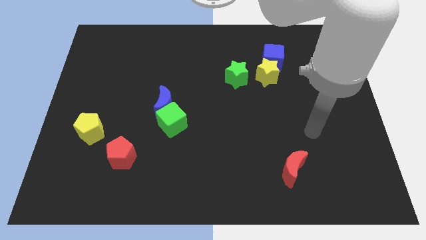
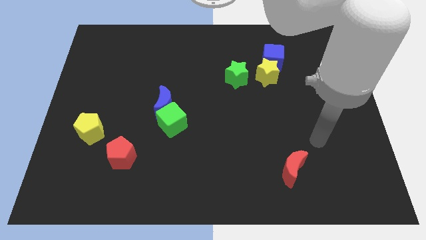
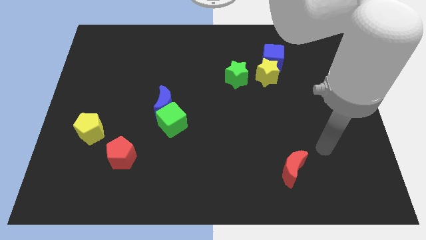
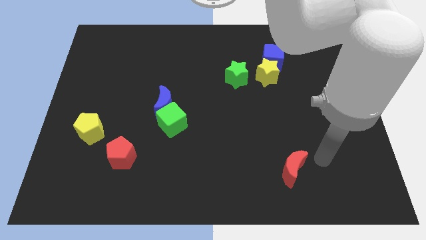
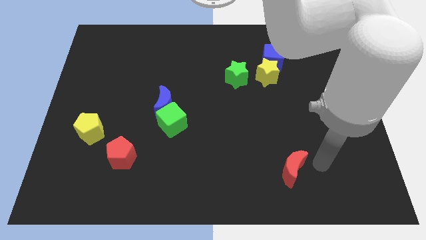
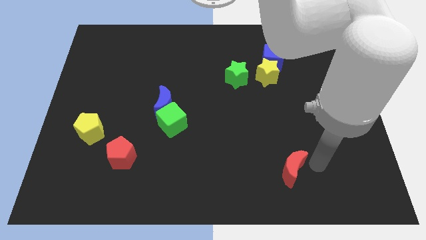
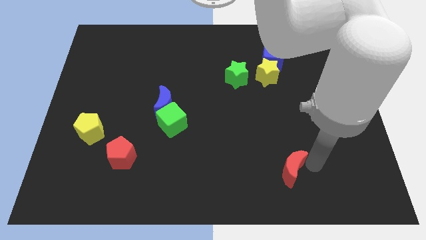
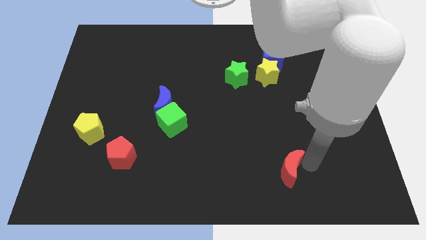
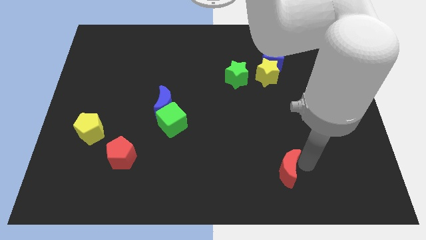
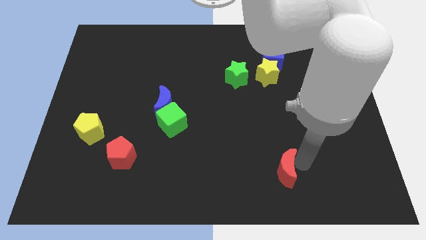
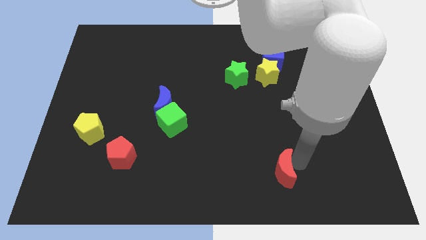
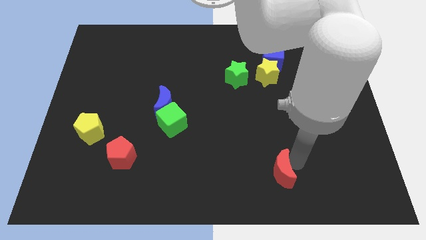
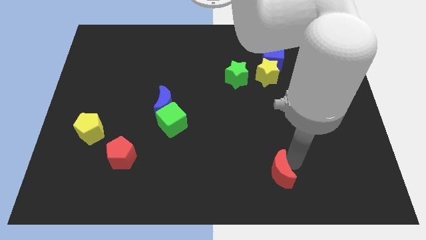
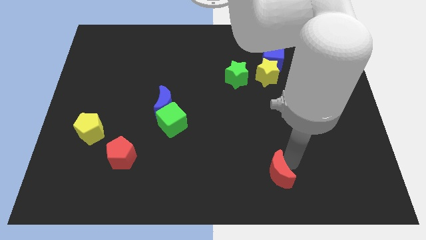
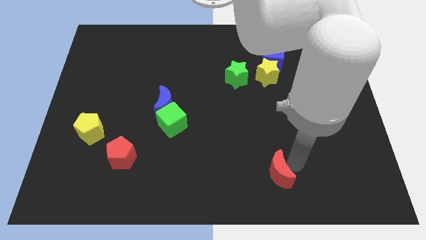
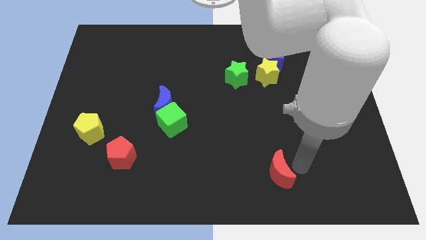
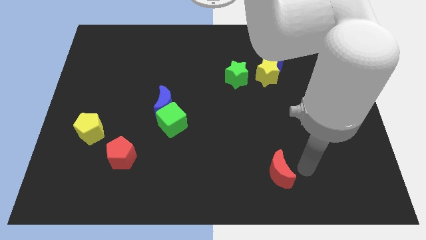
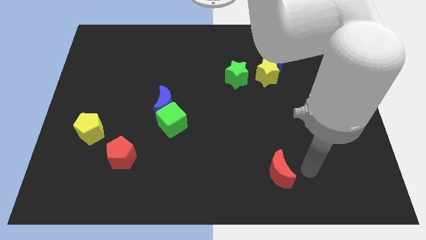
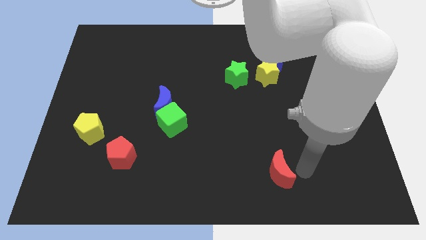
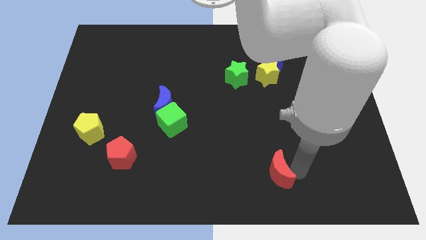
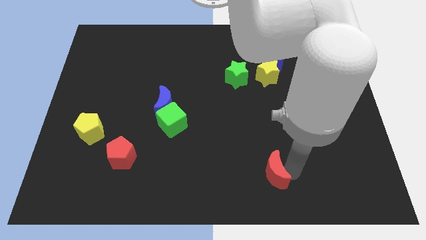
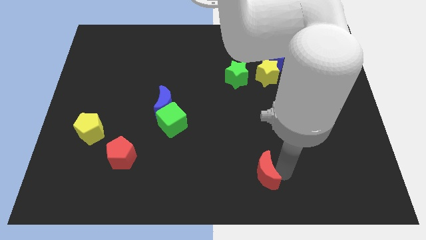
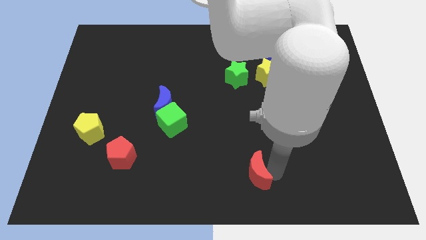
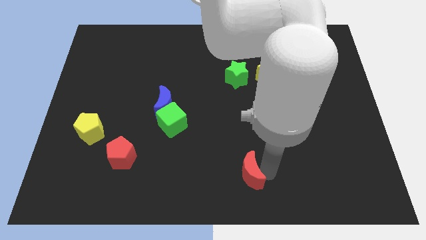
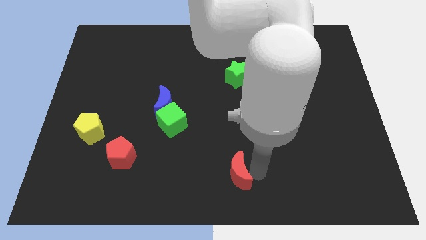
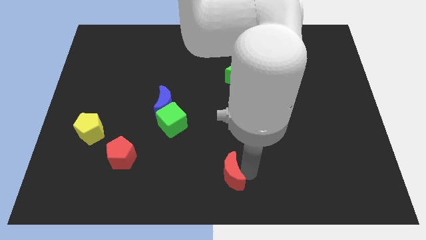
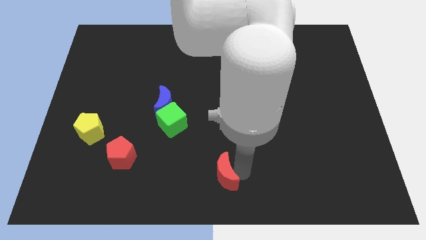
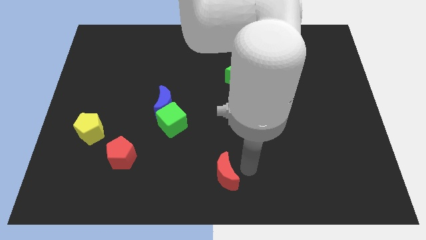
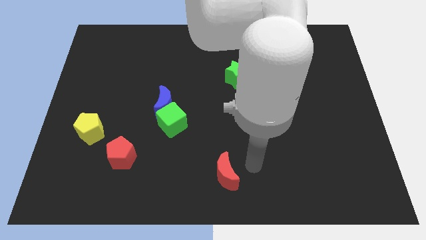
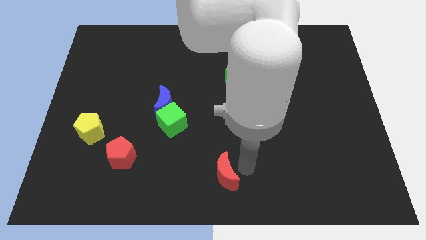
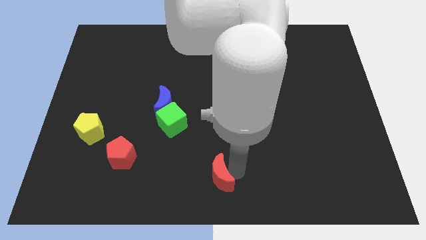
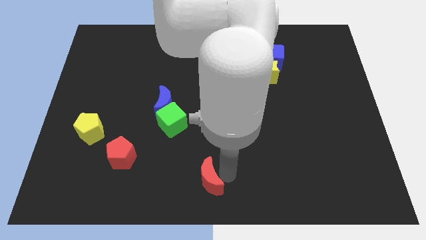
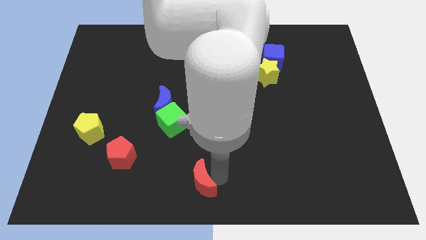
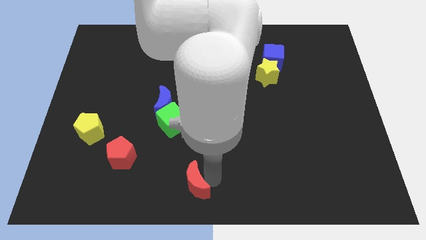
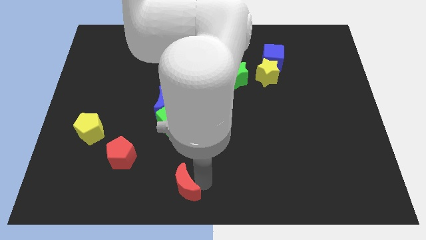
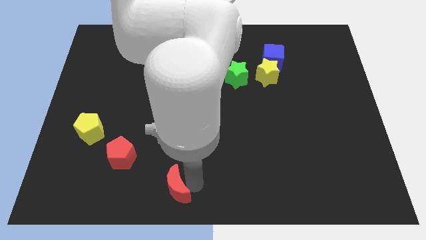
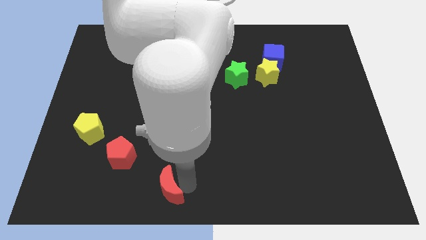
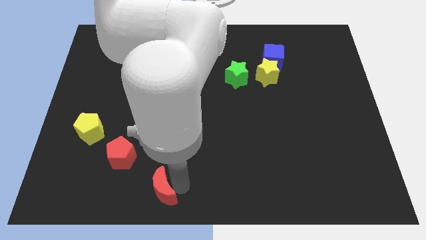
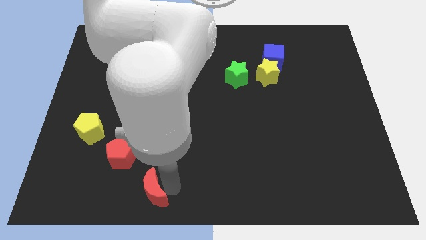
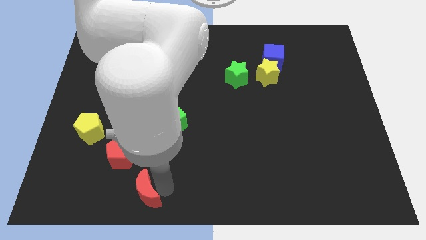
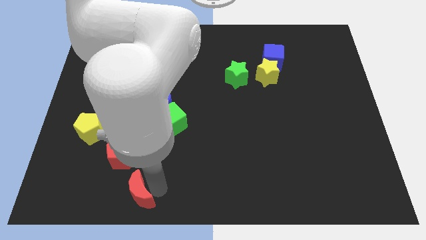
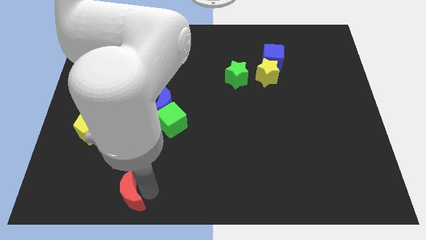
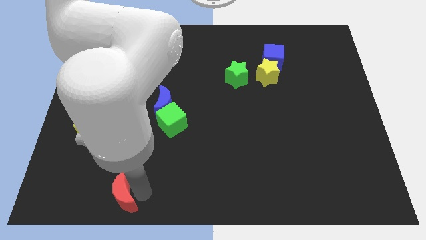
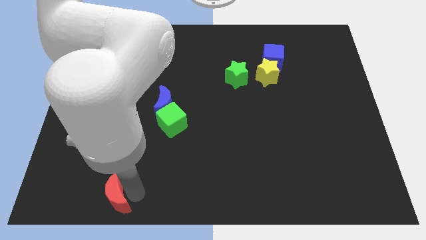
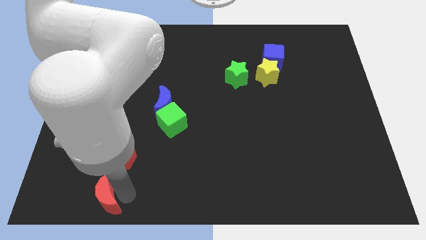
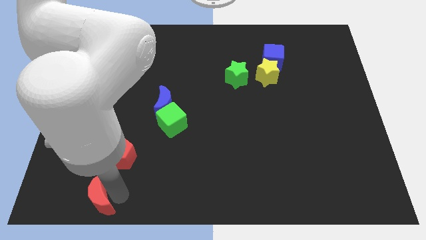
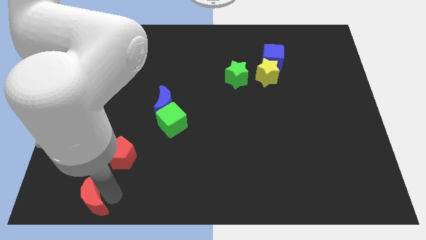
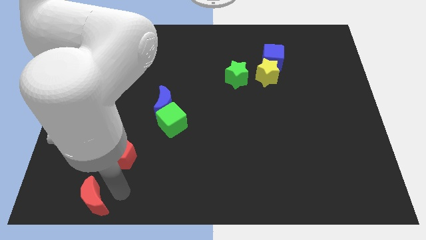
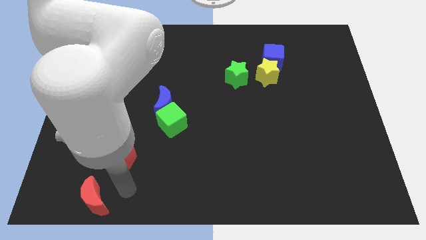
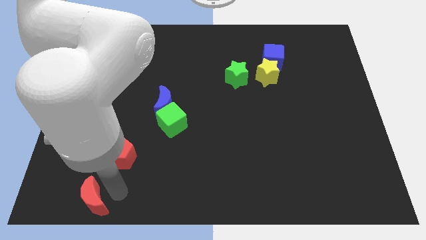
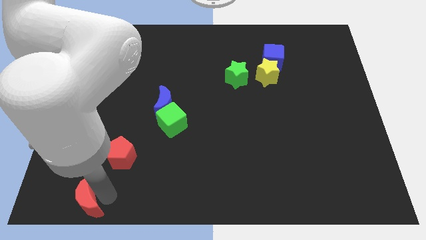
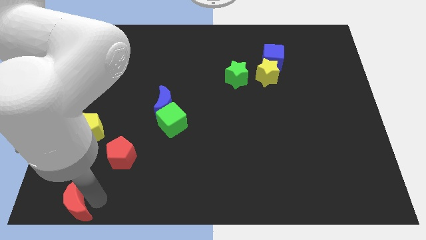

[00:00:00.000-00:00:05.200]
slide the red moon to the bottom left of the board

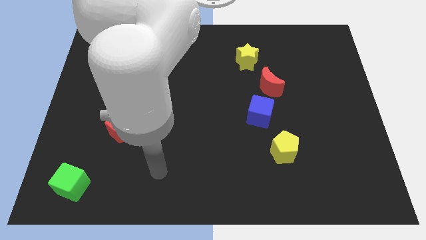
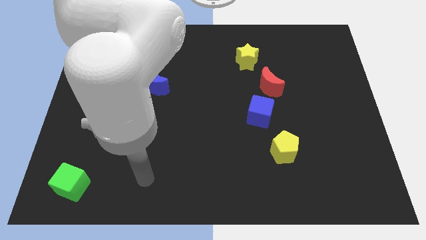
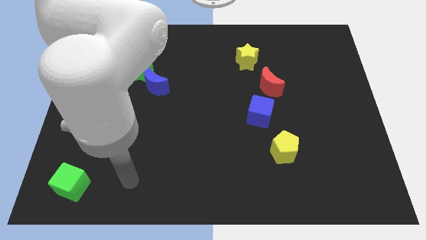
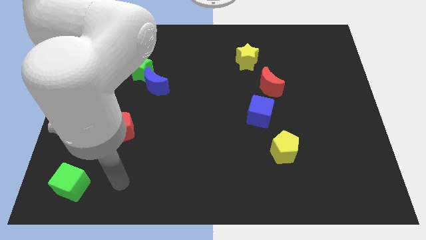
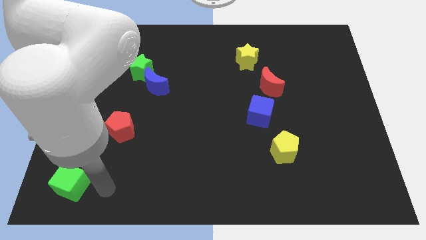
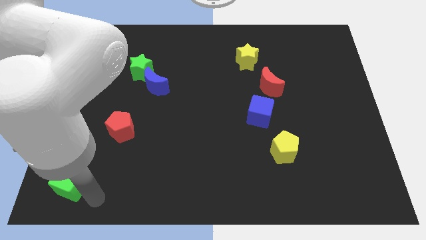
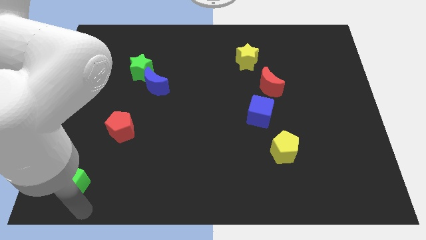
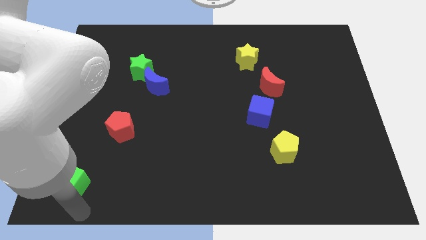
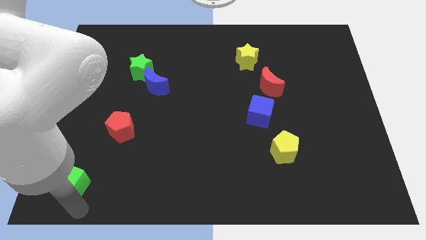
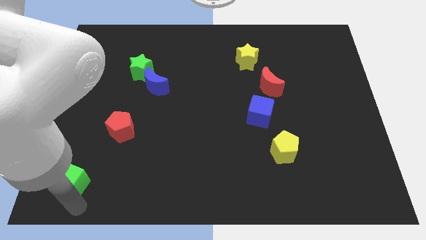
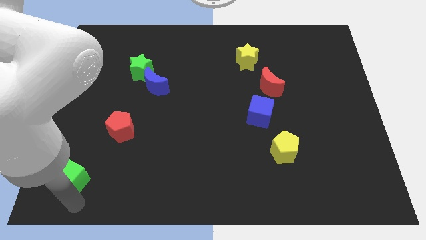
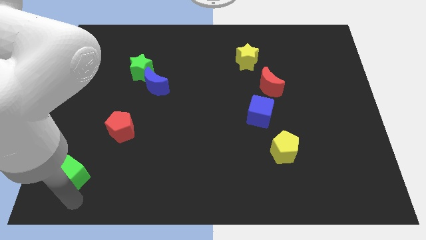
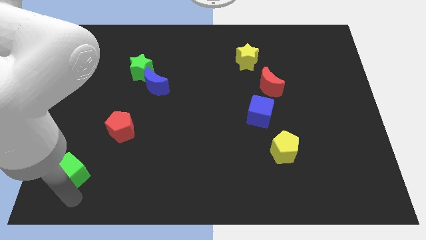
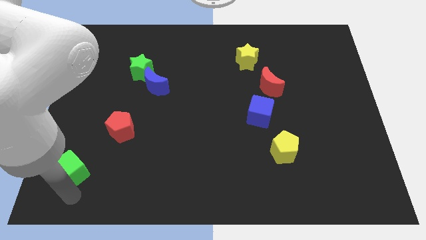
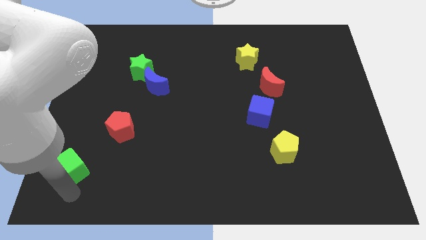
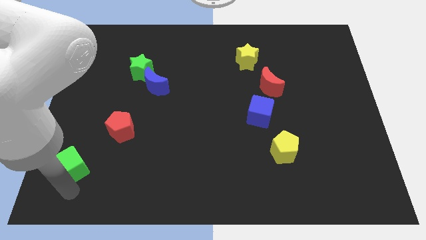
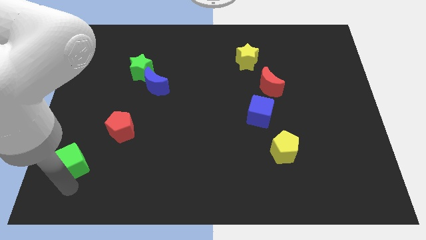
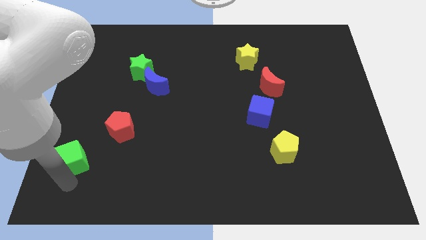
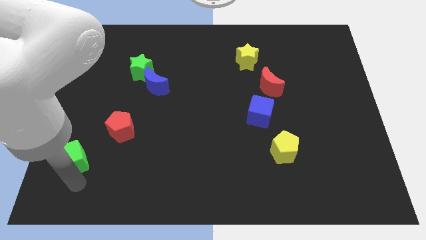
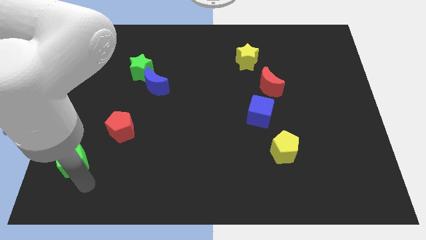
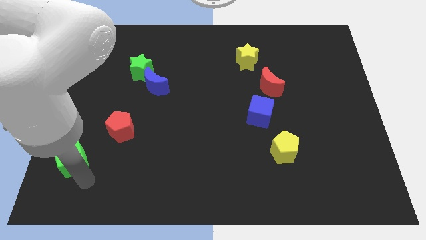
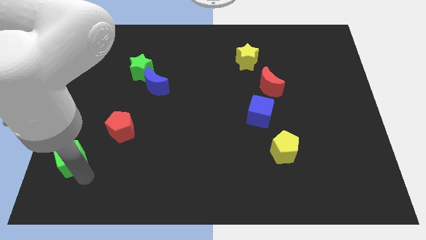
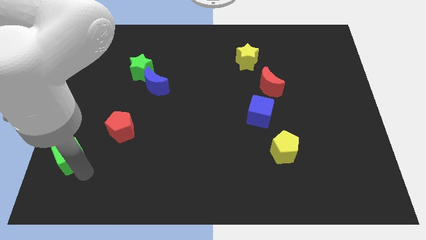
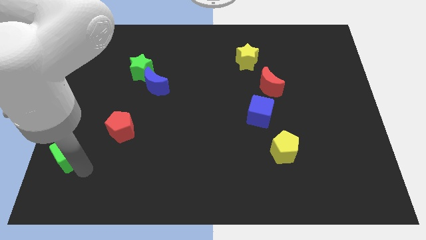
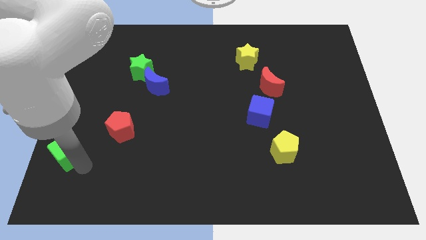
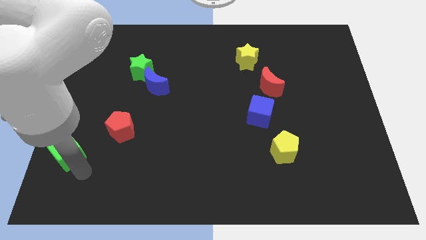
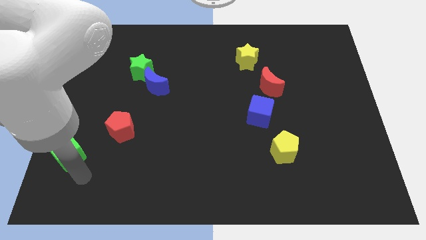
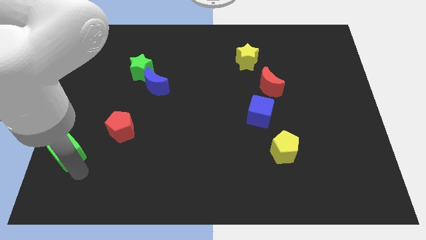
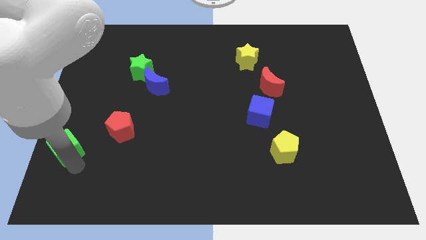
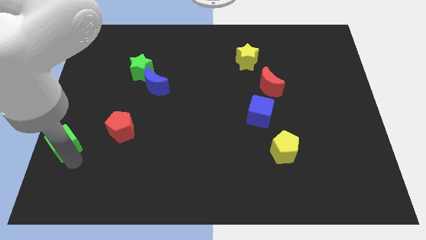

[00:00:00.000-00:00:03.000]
push the green cube to the left side
